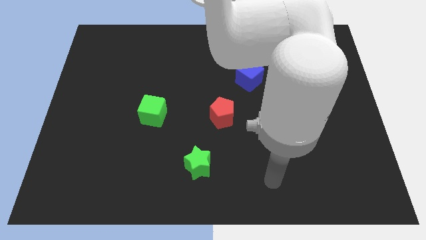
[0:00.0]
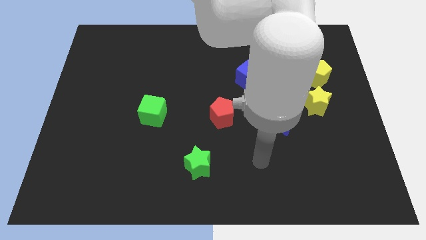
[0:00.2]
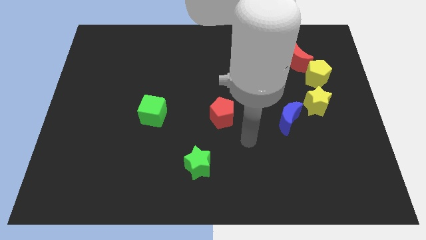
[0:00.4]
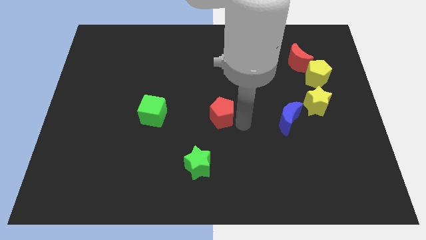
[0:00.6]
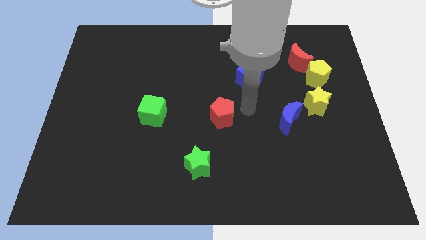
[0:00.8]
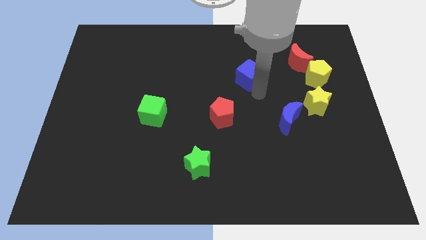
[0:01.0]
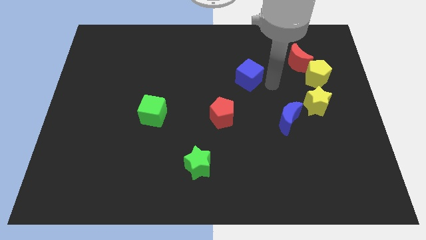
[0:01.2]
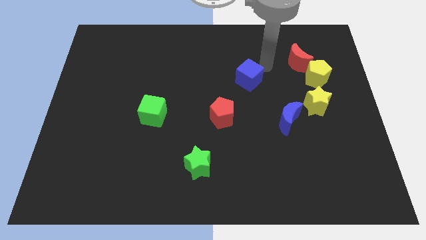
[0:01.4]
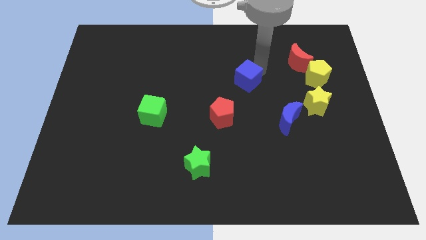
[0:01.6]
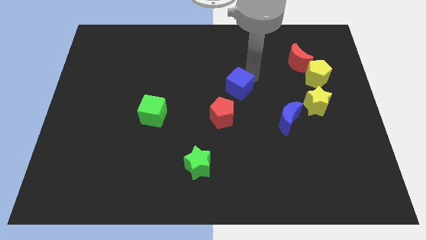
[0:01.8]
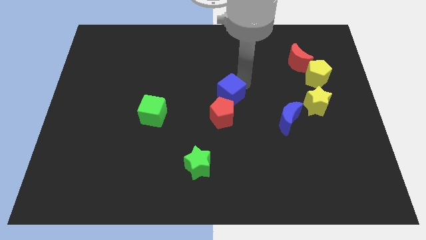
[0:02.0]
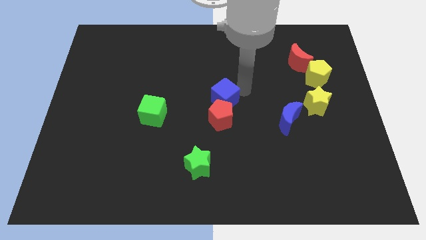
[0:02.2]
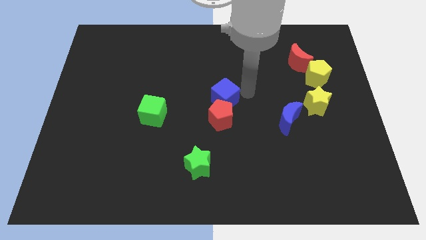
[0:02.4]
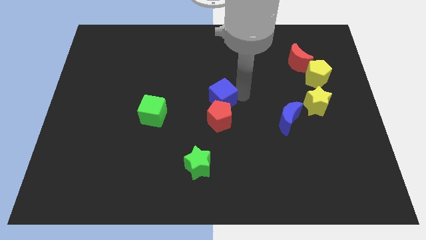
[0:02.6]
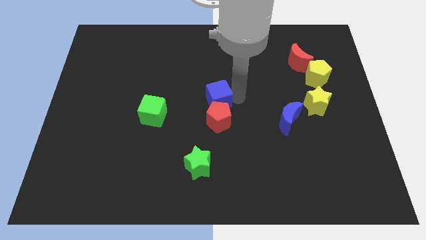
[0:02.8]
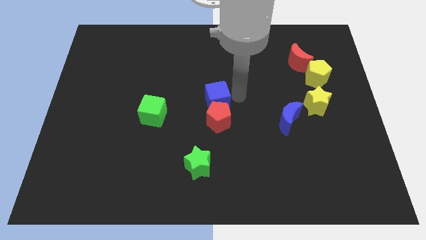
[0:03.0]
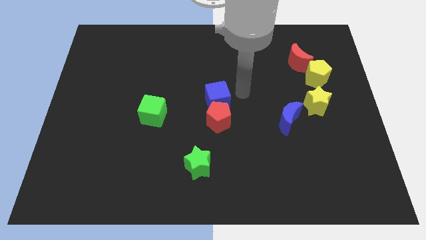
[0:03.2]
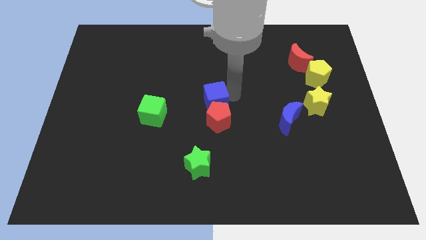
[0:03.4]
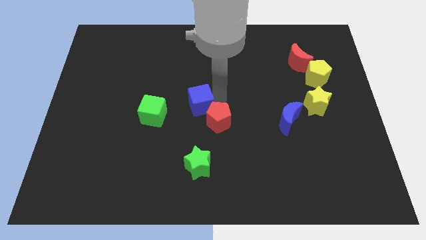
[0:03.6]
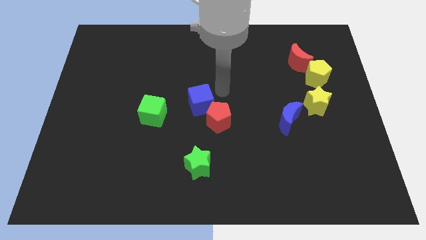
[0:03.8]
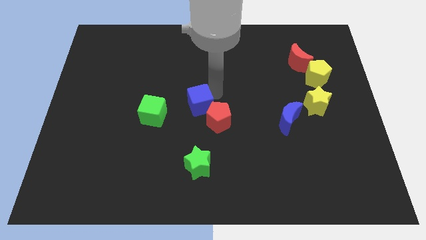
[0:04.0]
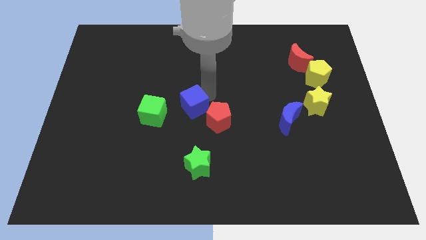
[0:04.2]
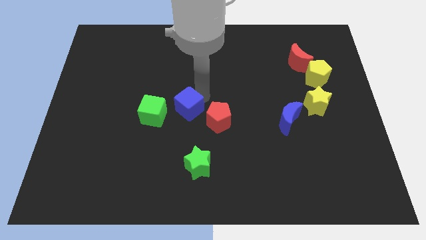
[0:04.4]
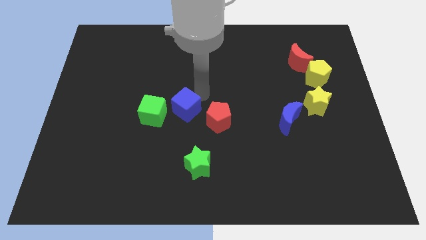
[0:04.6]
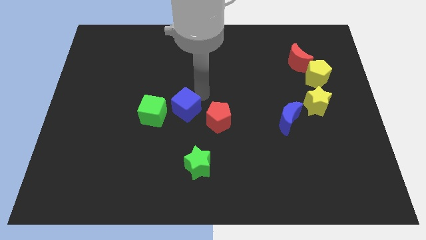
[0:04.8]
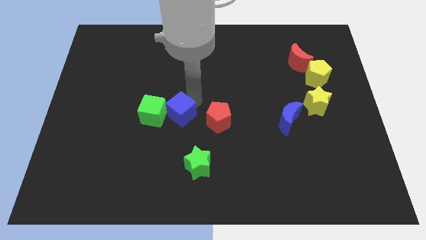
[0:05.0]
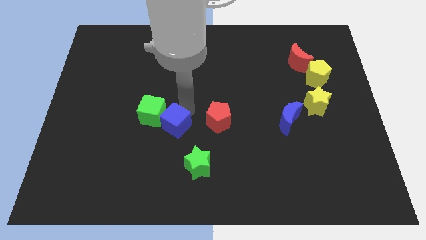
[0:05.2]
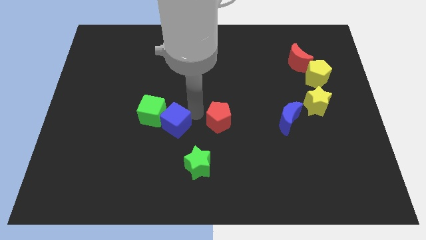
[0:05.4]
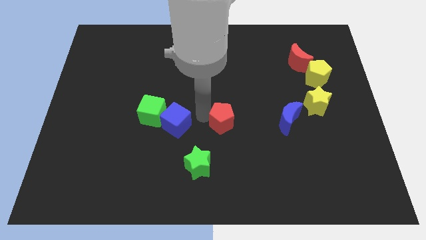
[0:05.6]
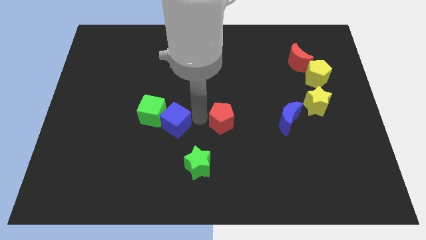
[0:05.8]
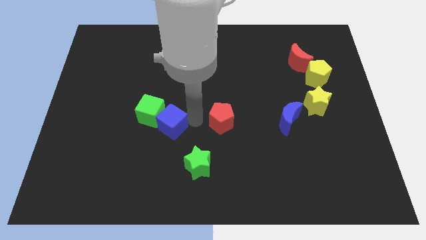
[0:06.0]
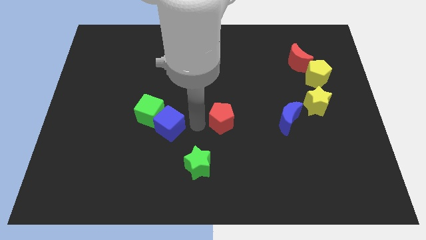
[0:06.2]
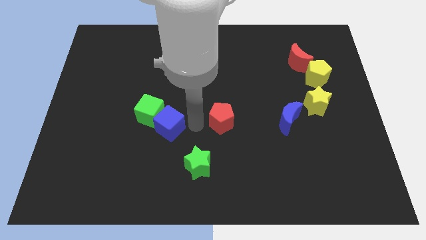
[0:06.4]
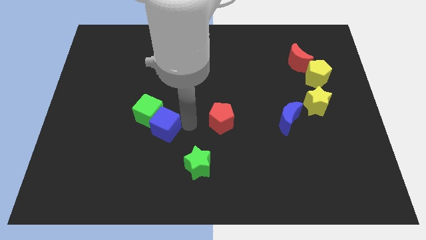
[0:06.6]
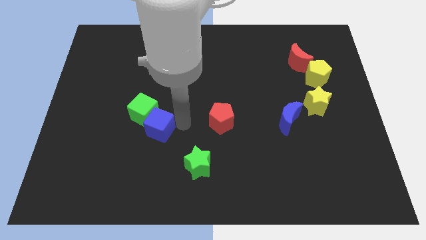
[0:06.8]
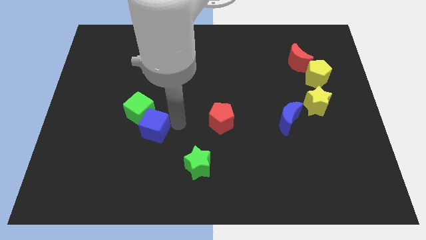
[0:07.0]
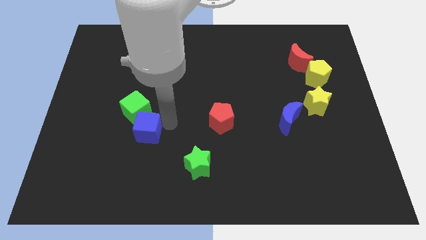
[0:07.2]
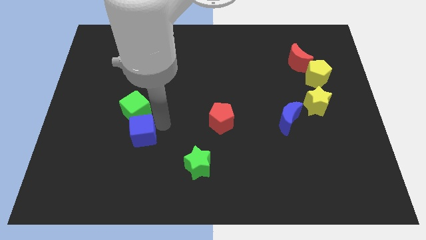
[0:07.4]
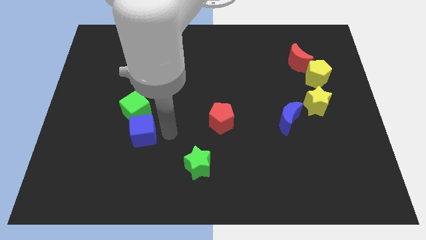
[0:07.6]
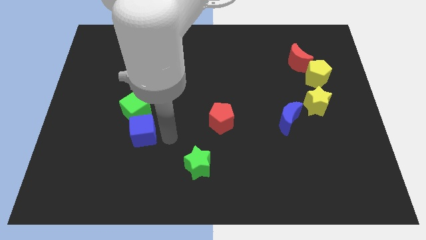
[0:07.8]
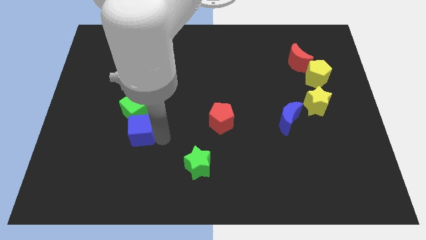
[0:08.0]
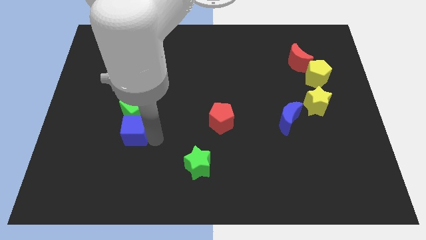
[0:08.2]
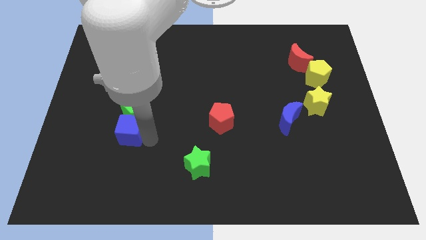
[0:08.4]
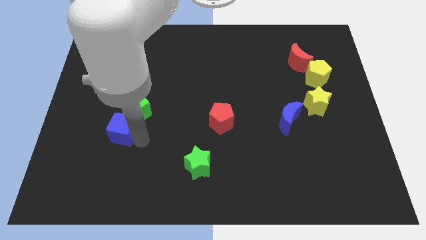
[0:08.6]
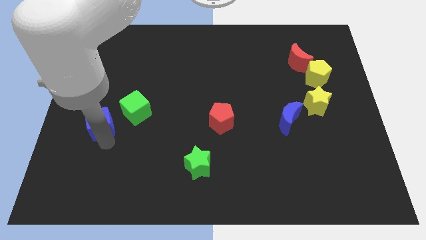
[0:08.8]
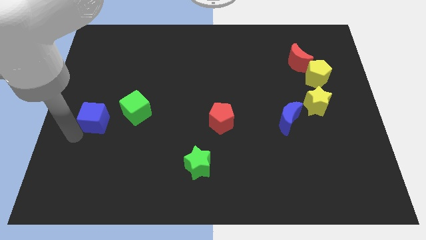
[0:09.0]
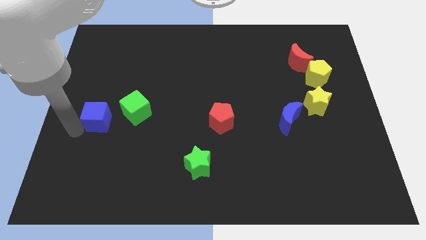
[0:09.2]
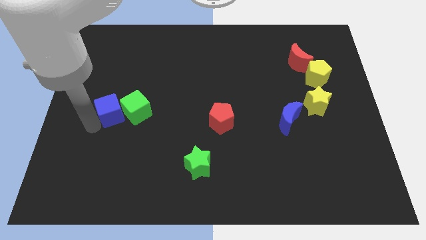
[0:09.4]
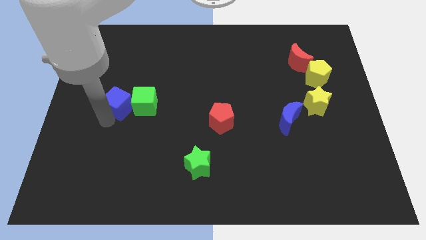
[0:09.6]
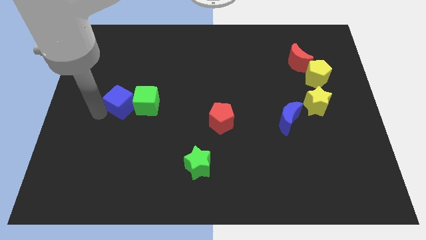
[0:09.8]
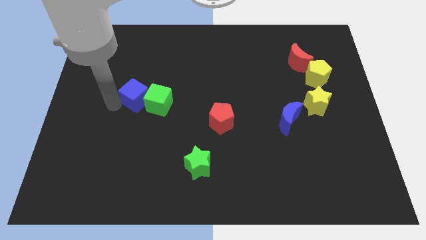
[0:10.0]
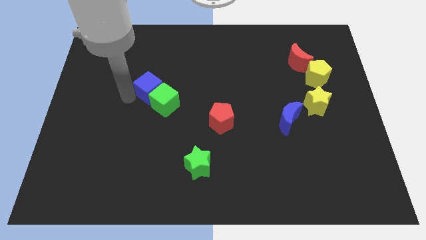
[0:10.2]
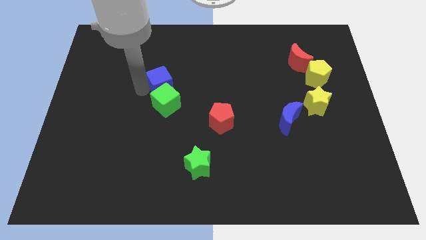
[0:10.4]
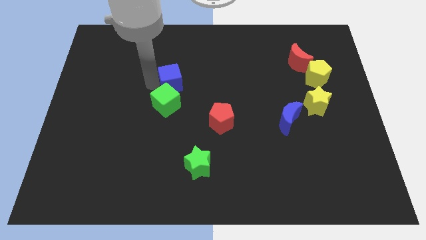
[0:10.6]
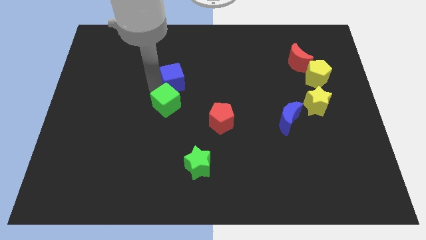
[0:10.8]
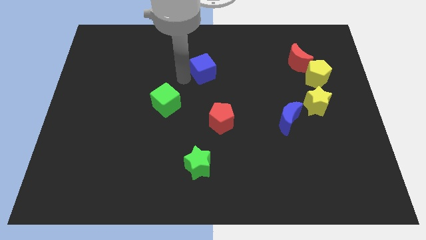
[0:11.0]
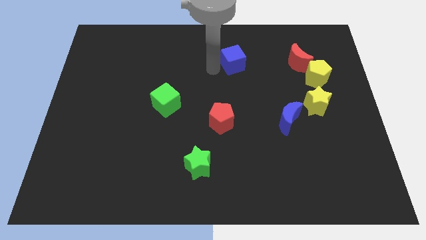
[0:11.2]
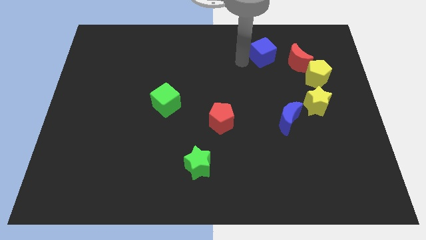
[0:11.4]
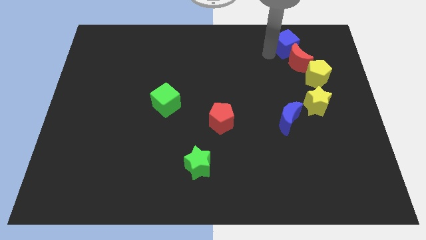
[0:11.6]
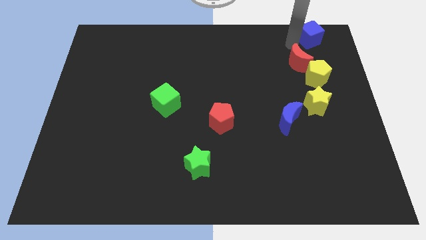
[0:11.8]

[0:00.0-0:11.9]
slide the blue cube to the upper right corner

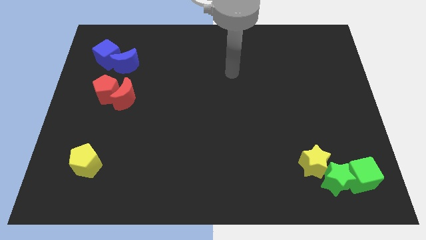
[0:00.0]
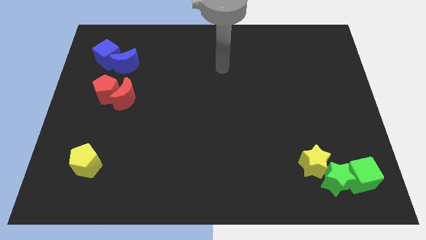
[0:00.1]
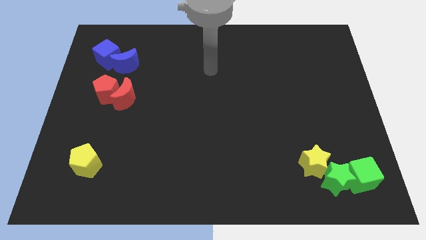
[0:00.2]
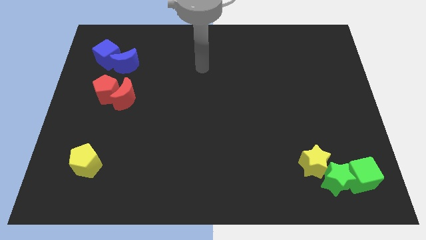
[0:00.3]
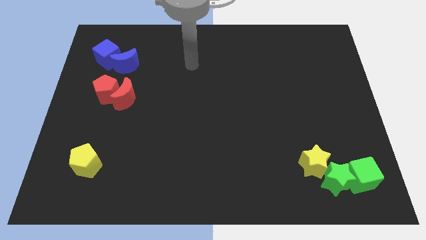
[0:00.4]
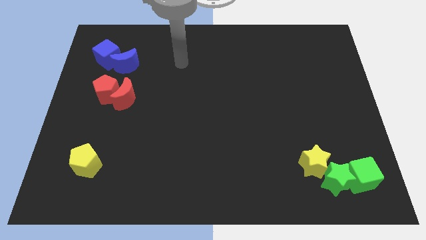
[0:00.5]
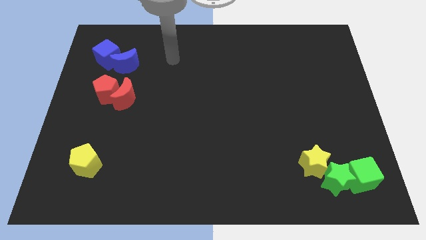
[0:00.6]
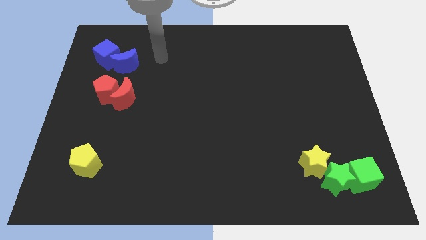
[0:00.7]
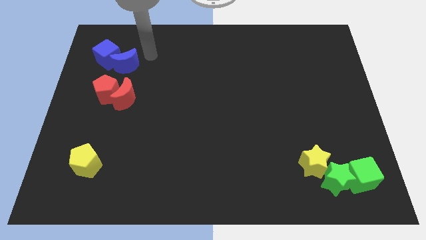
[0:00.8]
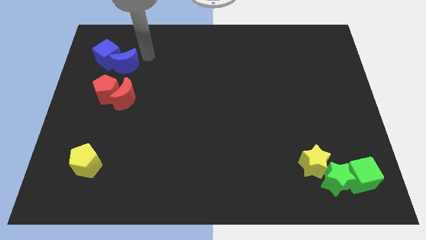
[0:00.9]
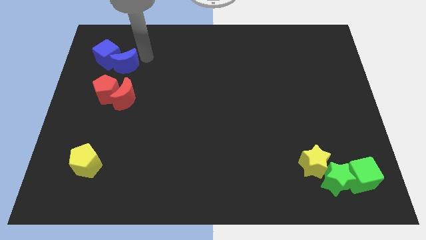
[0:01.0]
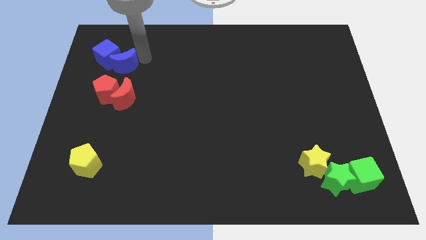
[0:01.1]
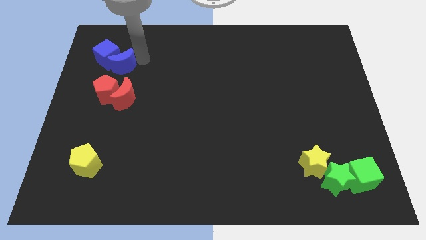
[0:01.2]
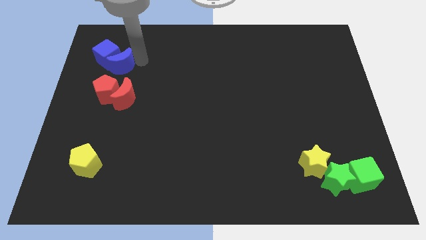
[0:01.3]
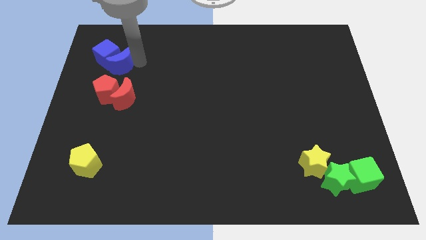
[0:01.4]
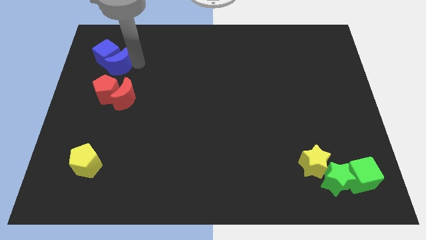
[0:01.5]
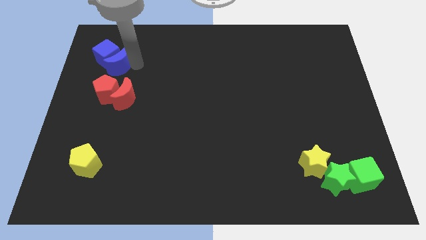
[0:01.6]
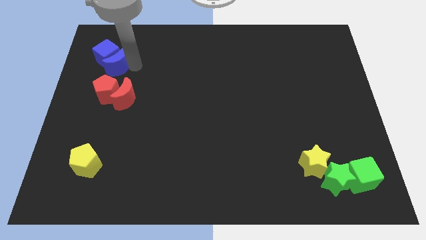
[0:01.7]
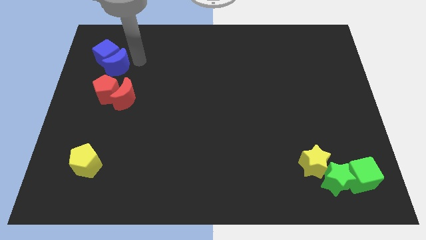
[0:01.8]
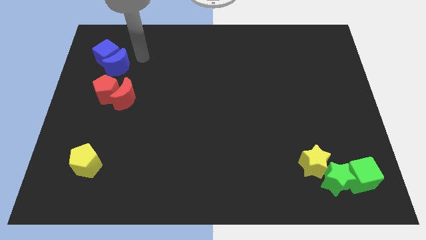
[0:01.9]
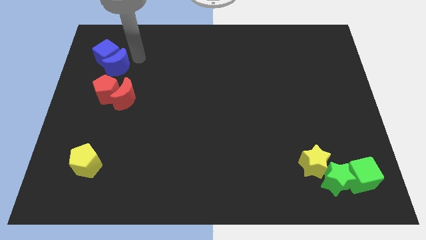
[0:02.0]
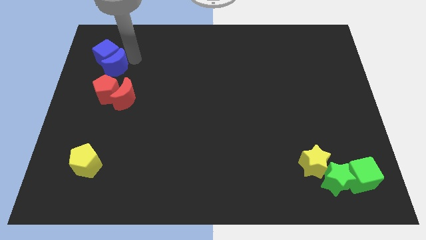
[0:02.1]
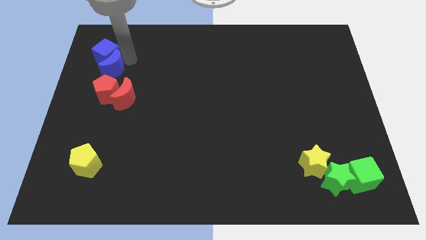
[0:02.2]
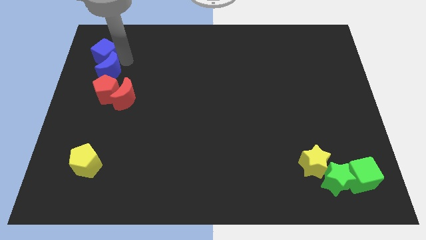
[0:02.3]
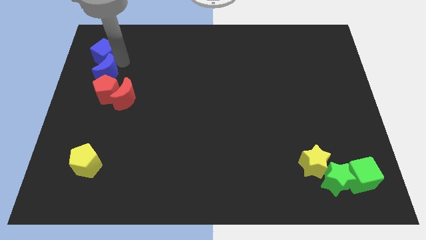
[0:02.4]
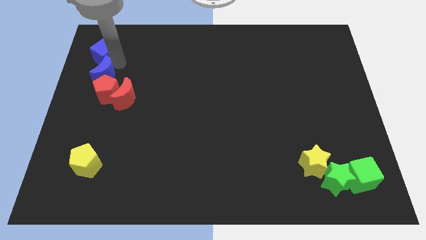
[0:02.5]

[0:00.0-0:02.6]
move the blue moon to the left side
